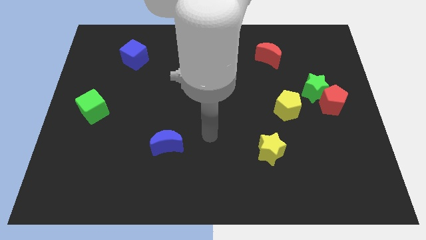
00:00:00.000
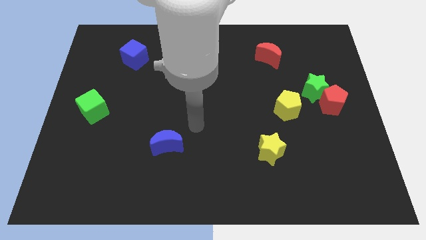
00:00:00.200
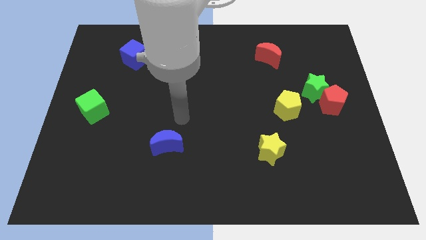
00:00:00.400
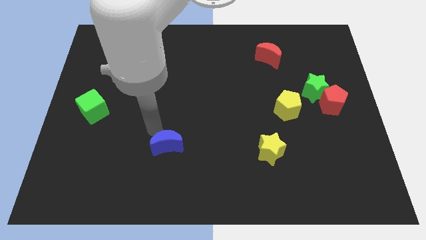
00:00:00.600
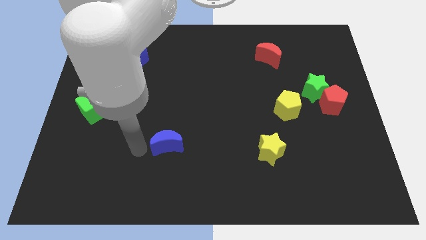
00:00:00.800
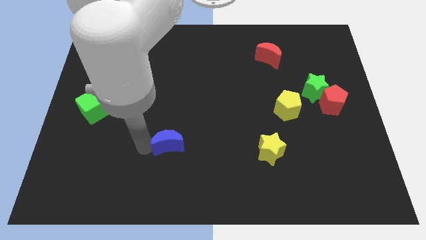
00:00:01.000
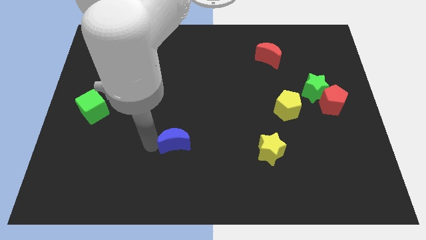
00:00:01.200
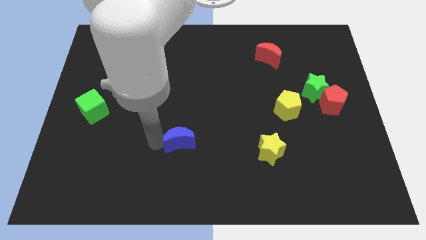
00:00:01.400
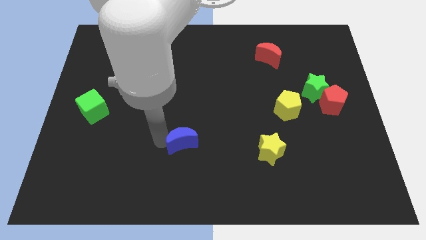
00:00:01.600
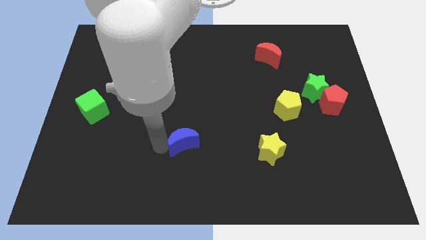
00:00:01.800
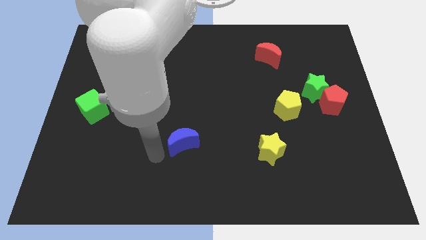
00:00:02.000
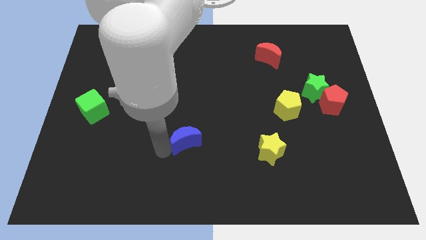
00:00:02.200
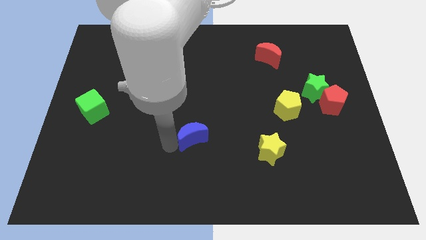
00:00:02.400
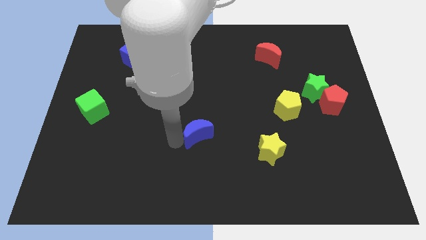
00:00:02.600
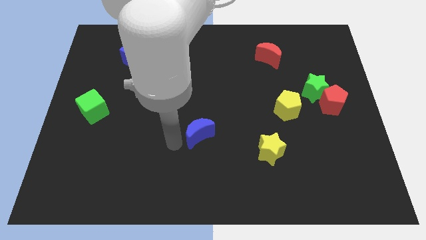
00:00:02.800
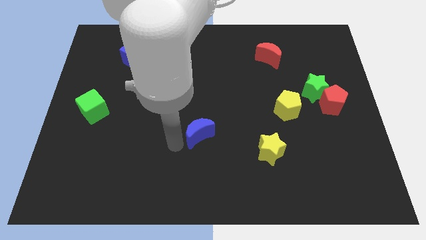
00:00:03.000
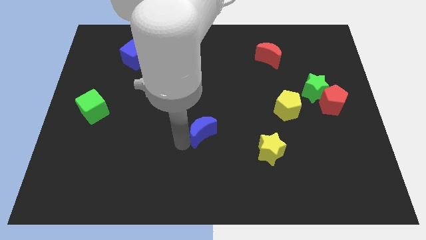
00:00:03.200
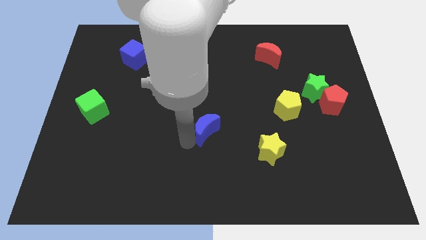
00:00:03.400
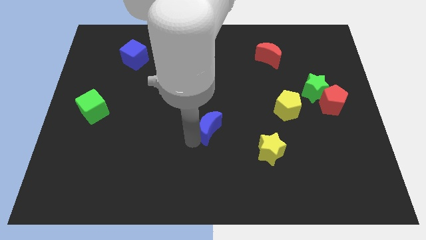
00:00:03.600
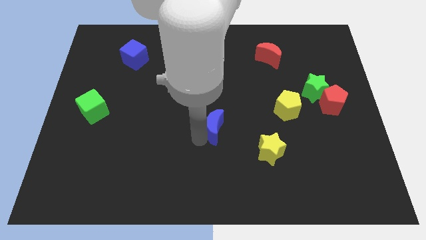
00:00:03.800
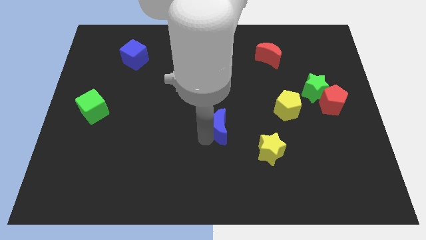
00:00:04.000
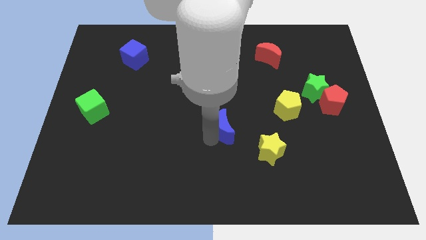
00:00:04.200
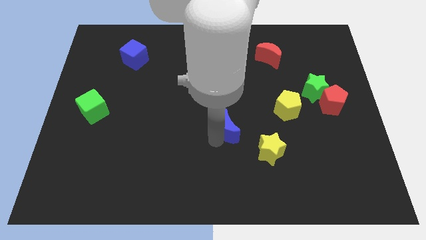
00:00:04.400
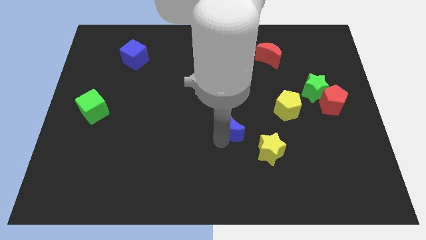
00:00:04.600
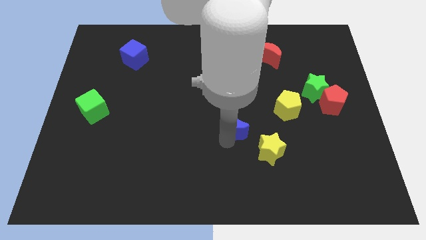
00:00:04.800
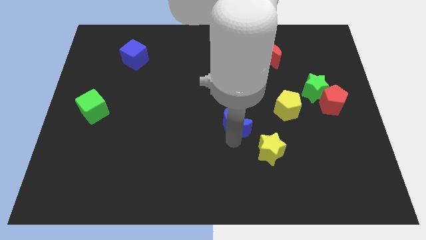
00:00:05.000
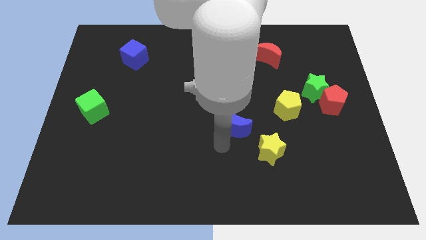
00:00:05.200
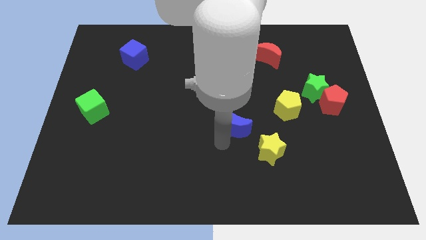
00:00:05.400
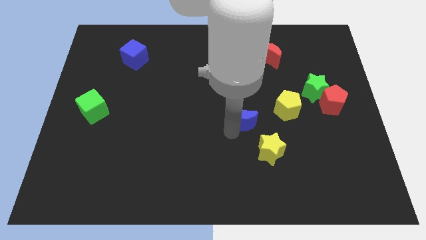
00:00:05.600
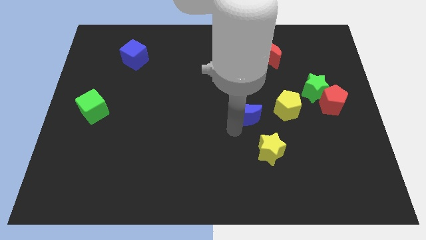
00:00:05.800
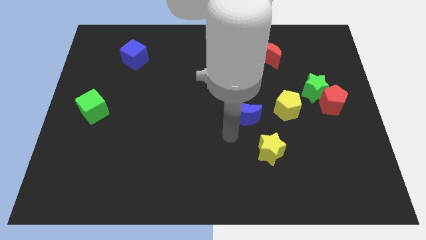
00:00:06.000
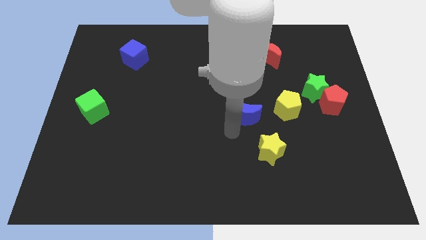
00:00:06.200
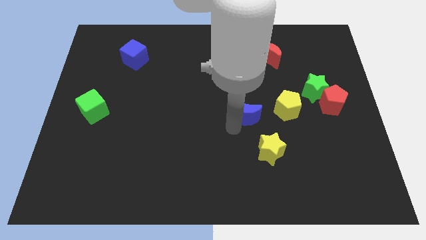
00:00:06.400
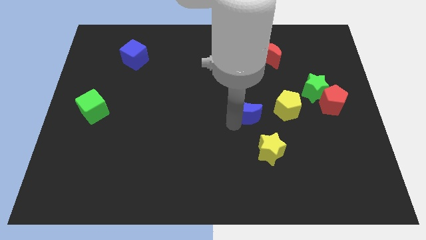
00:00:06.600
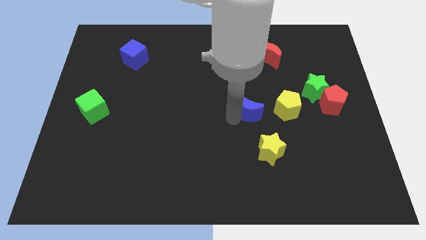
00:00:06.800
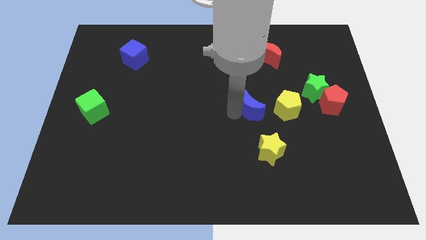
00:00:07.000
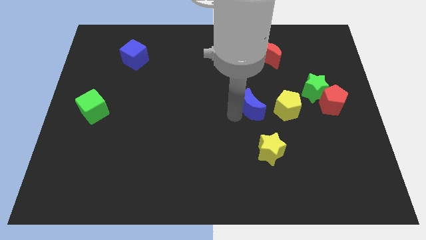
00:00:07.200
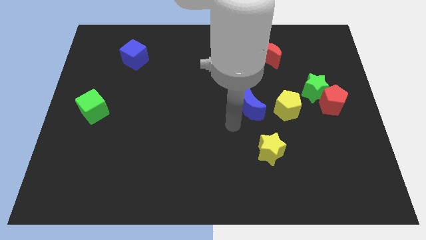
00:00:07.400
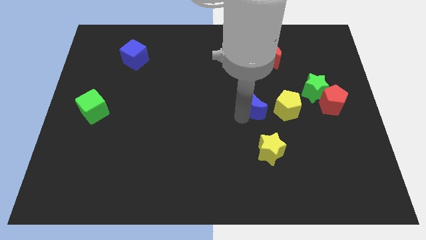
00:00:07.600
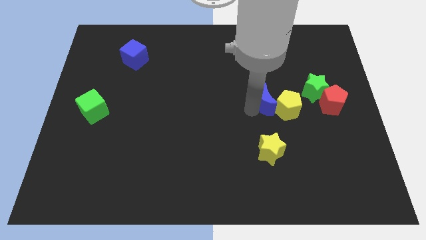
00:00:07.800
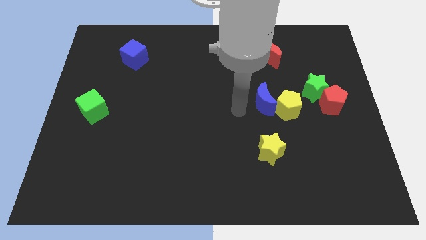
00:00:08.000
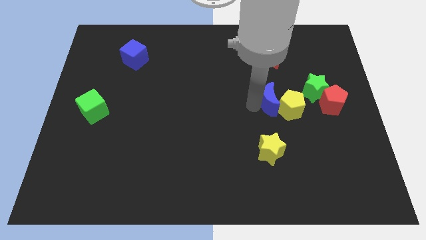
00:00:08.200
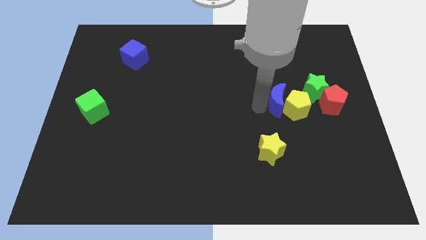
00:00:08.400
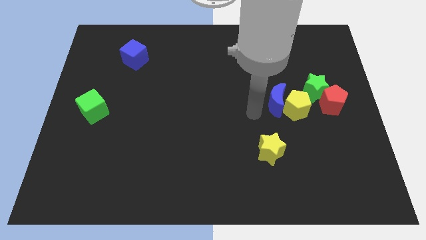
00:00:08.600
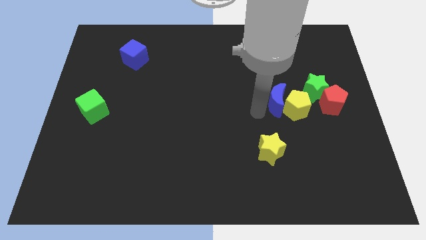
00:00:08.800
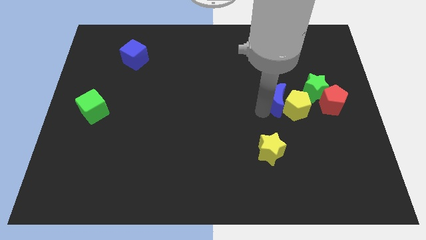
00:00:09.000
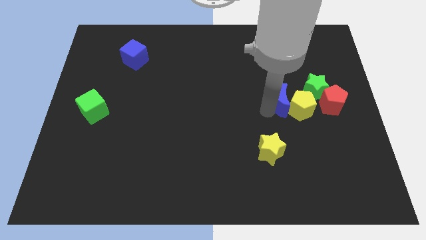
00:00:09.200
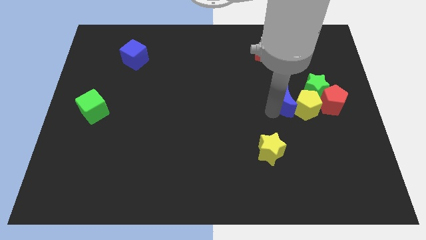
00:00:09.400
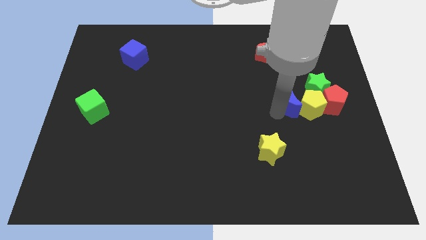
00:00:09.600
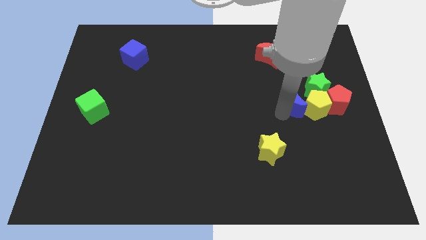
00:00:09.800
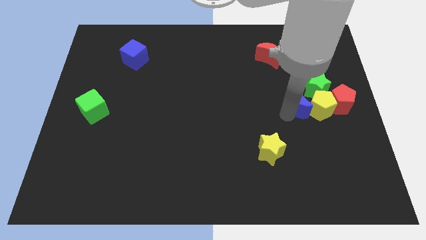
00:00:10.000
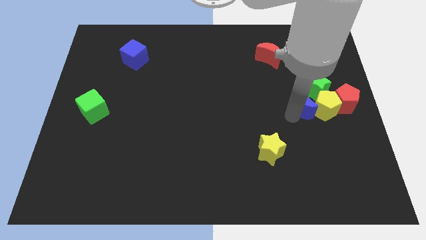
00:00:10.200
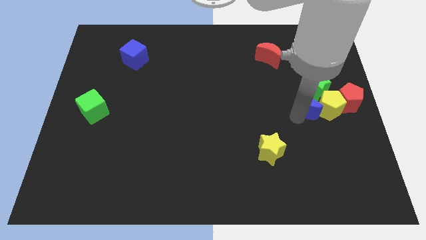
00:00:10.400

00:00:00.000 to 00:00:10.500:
move the blue moon close to the green star

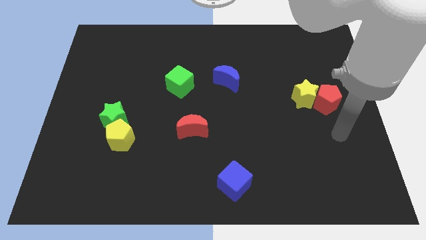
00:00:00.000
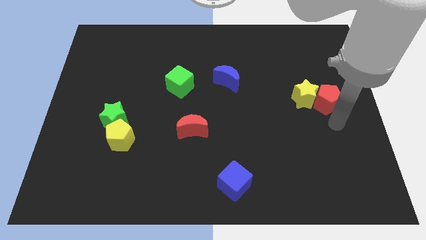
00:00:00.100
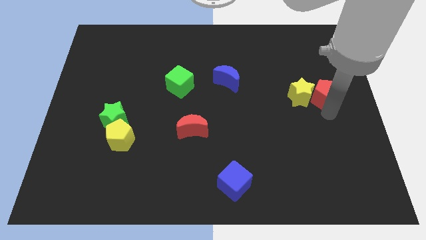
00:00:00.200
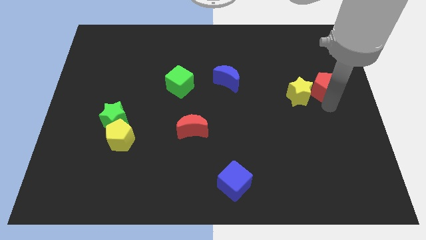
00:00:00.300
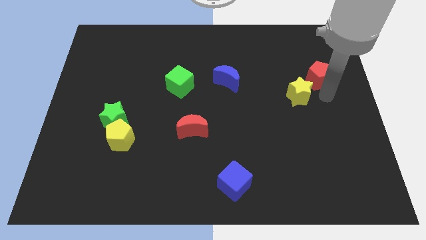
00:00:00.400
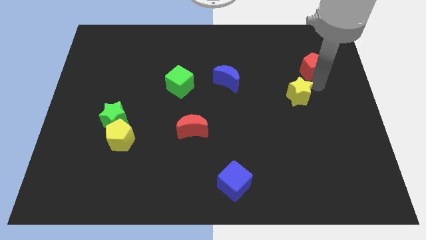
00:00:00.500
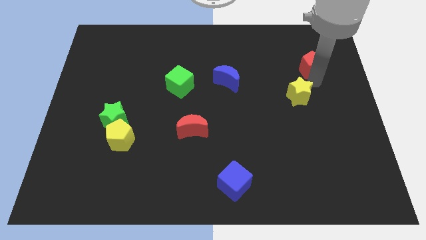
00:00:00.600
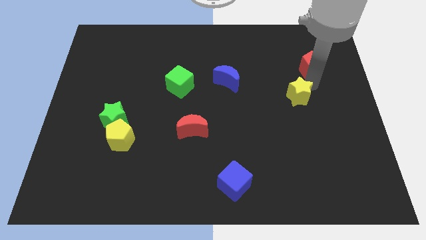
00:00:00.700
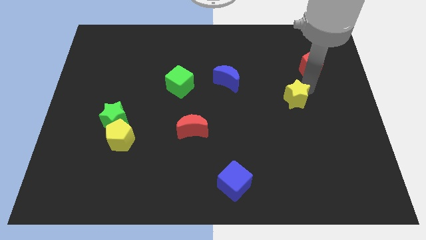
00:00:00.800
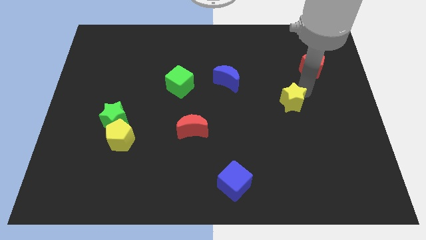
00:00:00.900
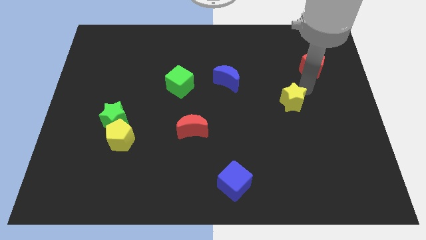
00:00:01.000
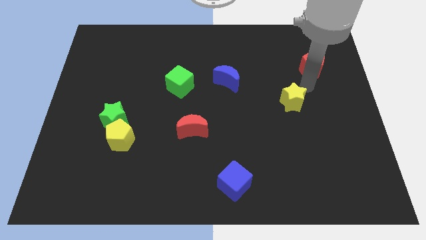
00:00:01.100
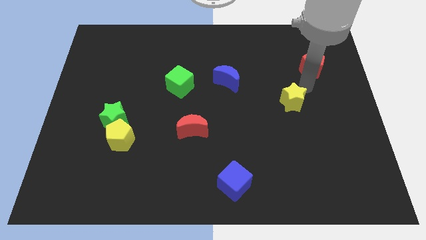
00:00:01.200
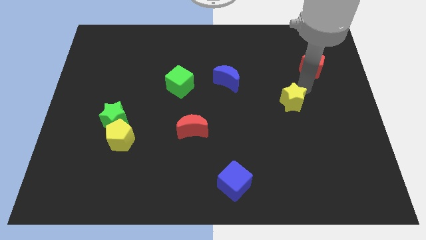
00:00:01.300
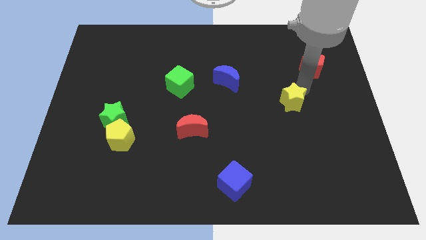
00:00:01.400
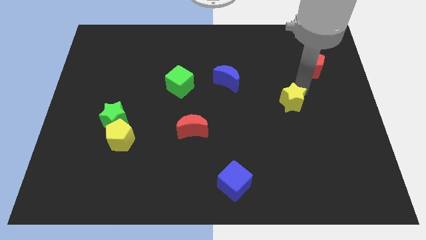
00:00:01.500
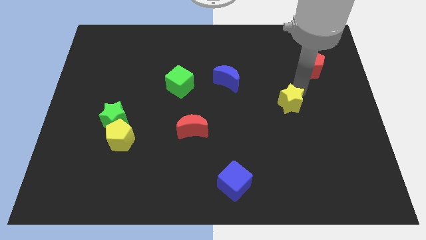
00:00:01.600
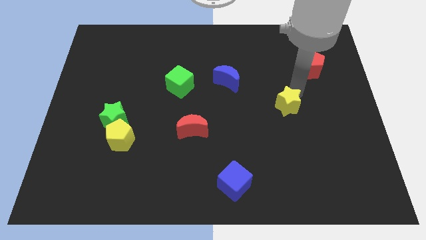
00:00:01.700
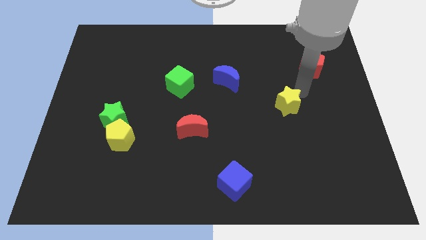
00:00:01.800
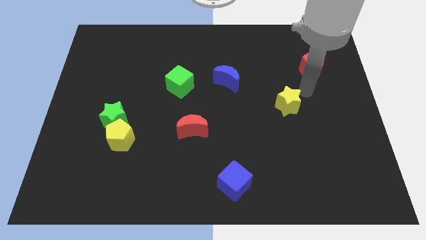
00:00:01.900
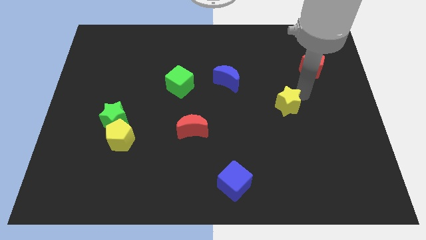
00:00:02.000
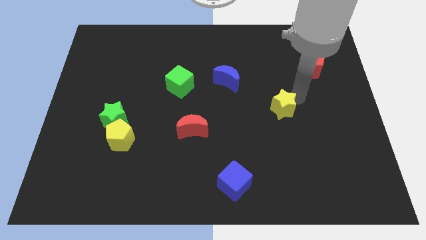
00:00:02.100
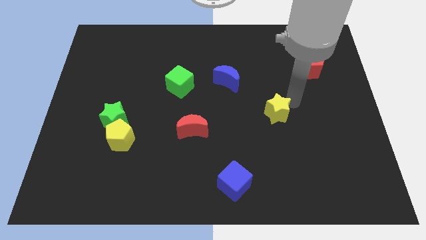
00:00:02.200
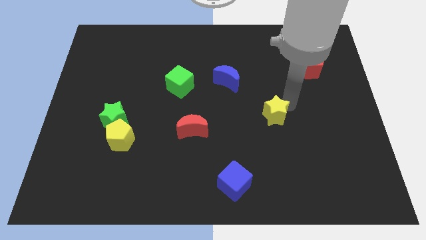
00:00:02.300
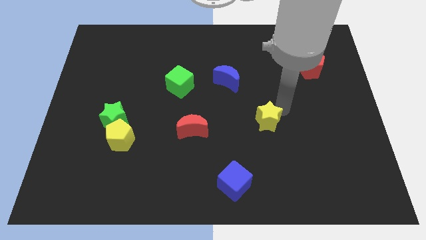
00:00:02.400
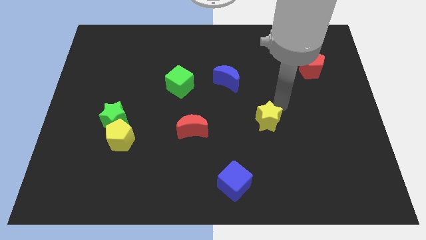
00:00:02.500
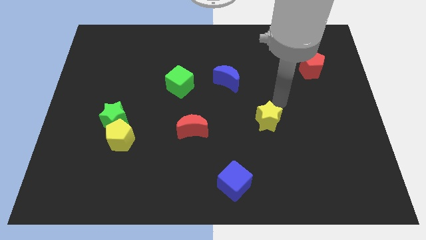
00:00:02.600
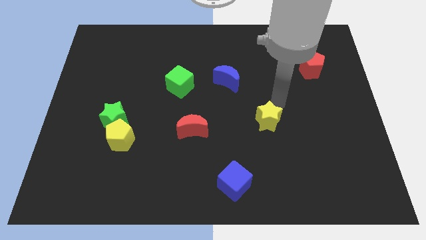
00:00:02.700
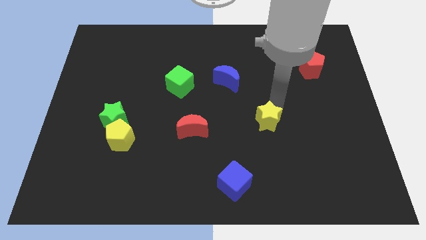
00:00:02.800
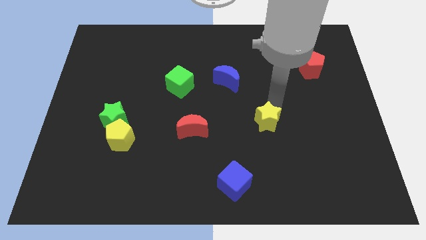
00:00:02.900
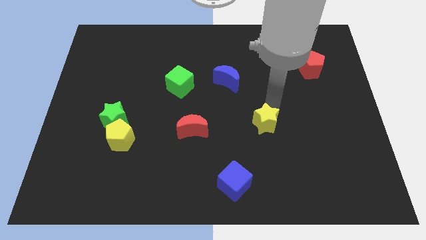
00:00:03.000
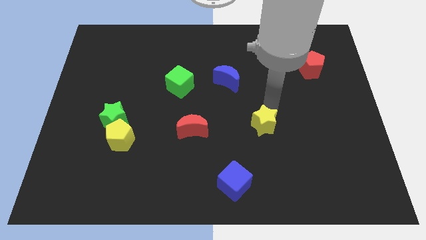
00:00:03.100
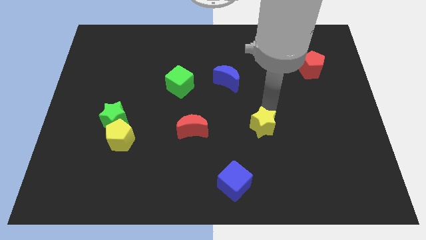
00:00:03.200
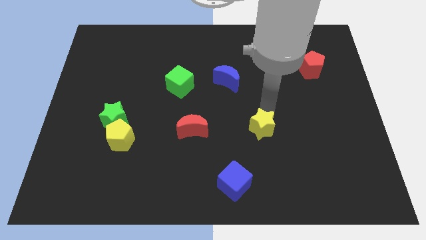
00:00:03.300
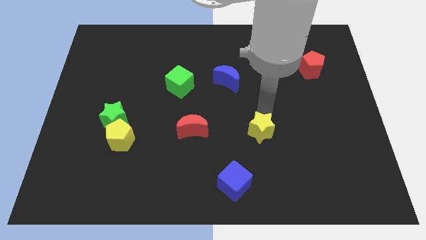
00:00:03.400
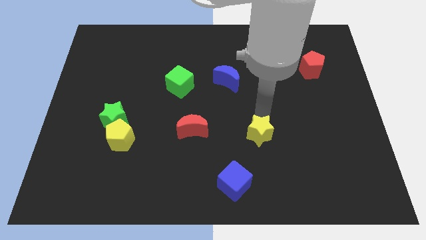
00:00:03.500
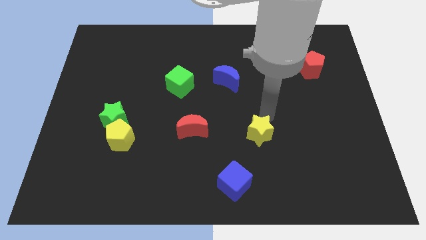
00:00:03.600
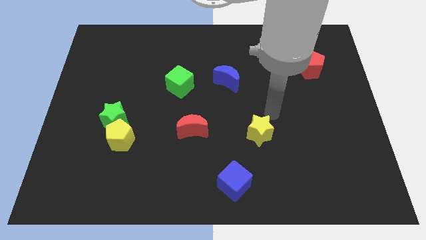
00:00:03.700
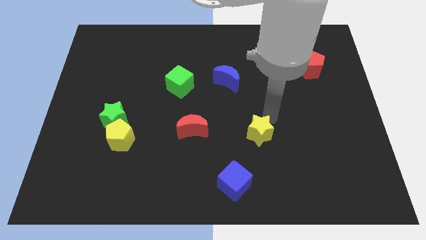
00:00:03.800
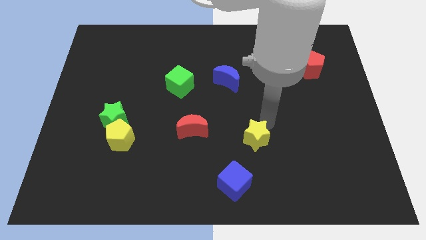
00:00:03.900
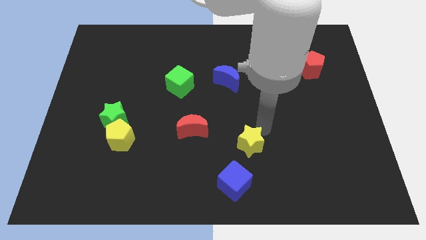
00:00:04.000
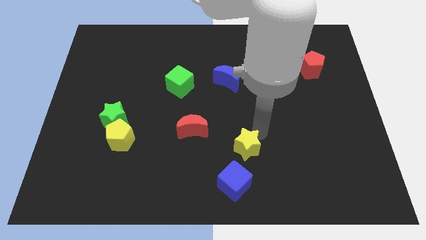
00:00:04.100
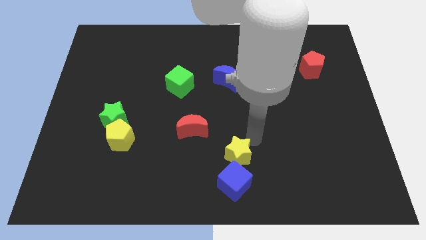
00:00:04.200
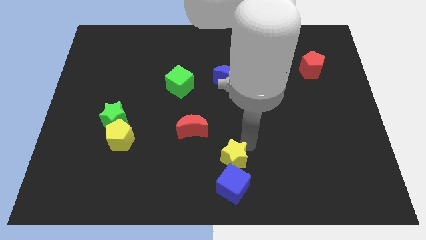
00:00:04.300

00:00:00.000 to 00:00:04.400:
push the yellow star towards the blue cube
